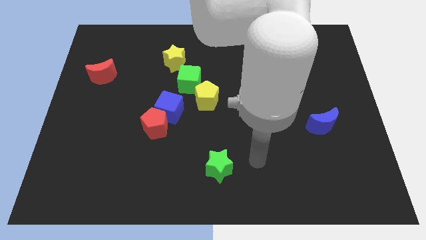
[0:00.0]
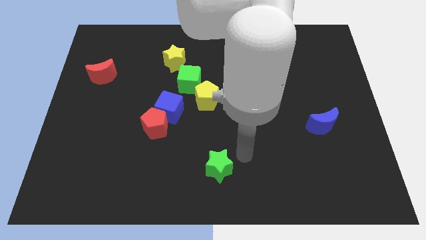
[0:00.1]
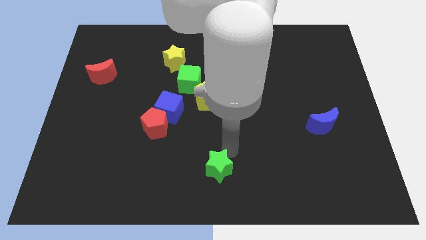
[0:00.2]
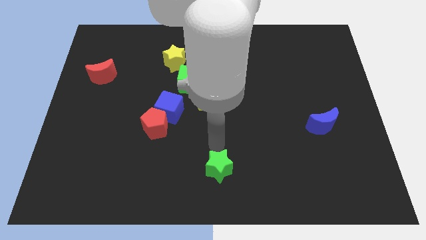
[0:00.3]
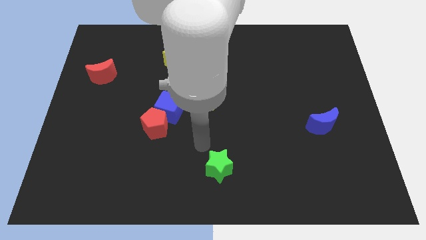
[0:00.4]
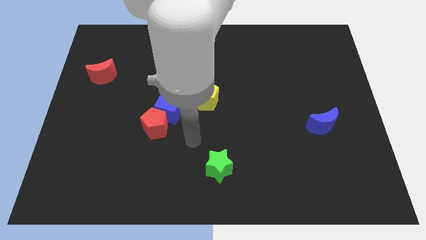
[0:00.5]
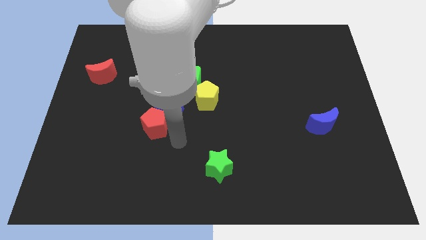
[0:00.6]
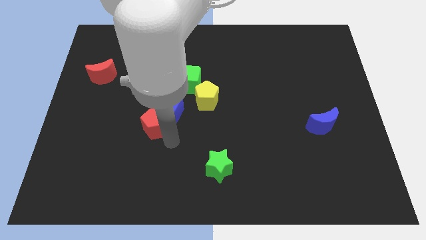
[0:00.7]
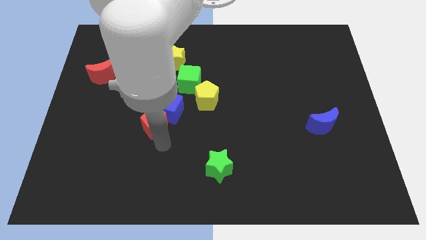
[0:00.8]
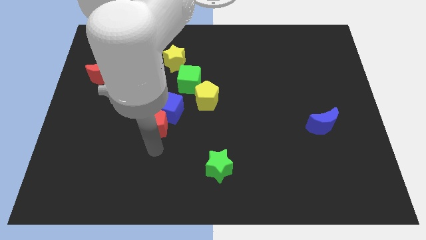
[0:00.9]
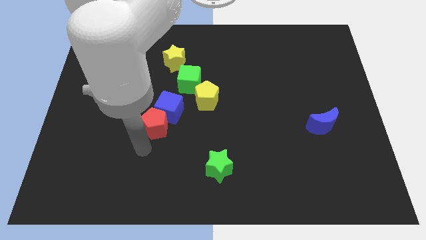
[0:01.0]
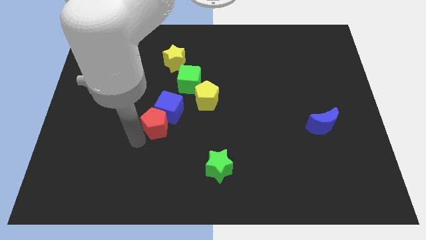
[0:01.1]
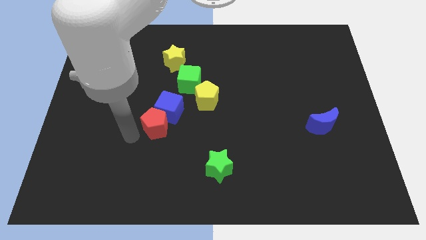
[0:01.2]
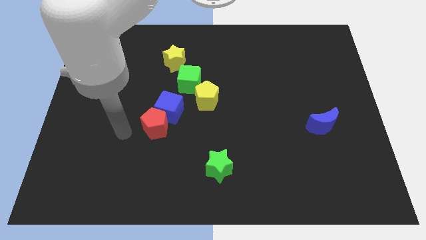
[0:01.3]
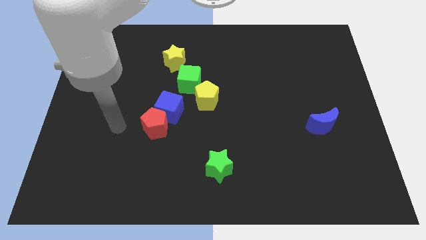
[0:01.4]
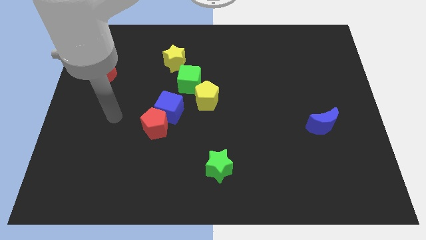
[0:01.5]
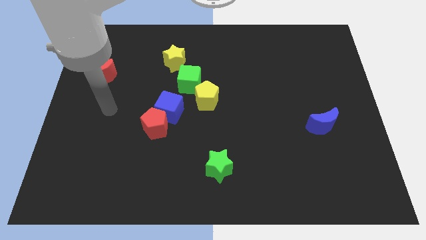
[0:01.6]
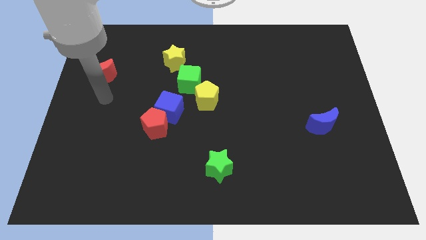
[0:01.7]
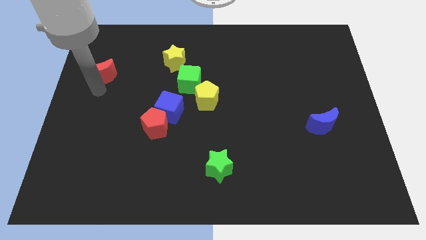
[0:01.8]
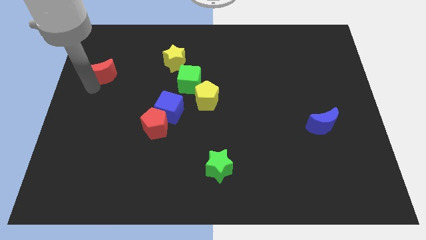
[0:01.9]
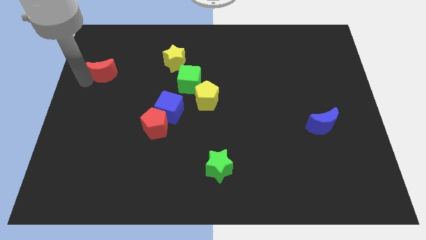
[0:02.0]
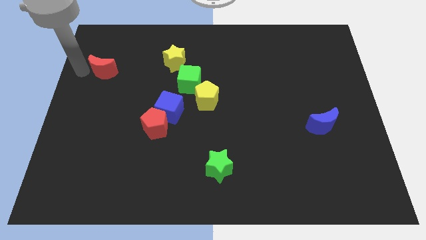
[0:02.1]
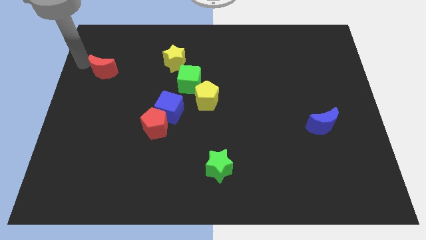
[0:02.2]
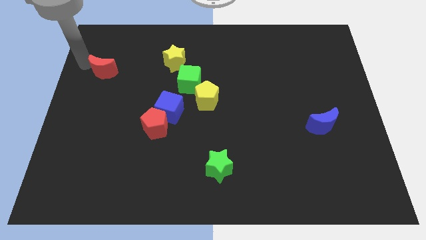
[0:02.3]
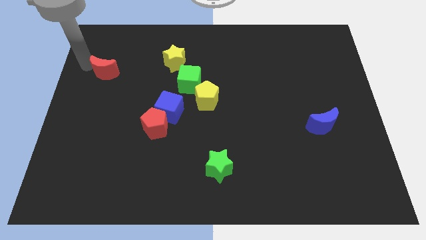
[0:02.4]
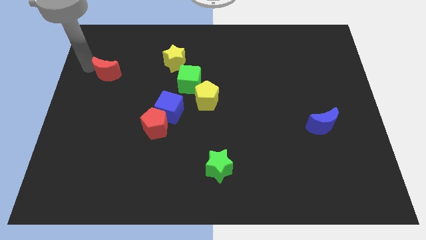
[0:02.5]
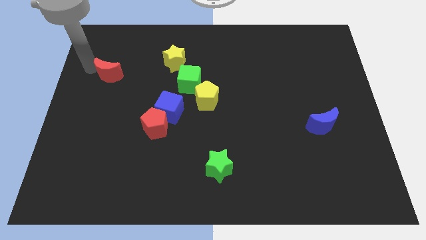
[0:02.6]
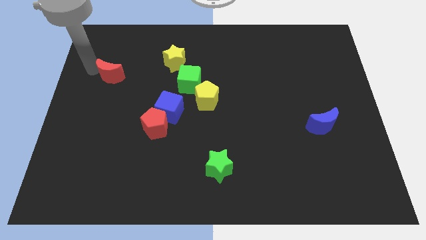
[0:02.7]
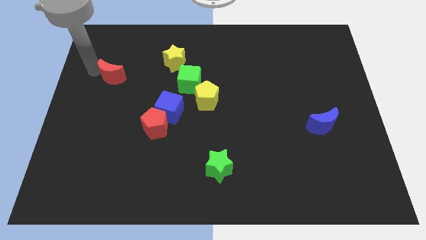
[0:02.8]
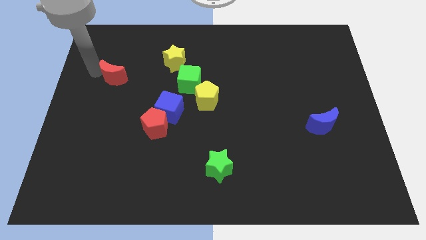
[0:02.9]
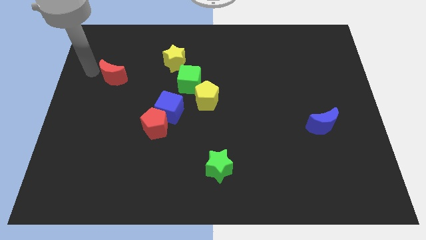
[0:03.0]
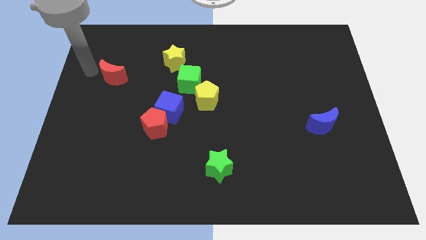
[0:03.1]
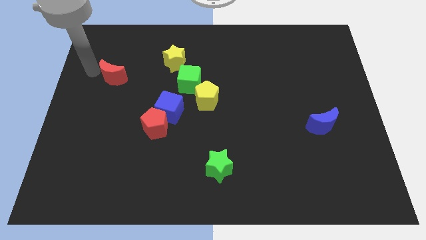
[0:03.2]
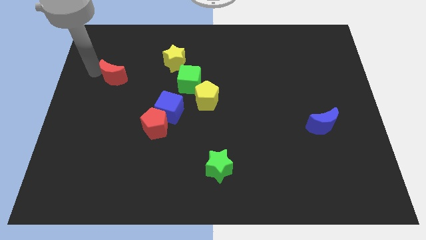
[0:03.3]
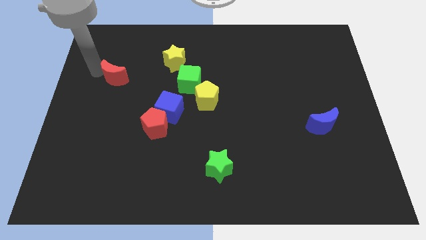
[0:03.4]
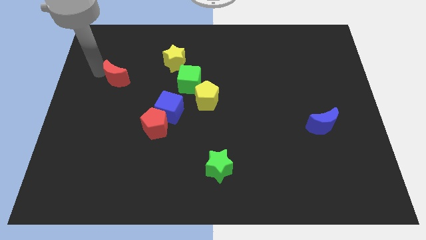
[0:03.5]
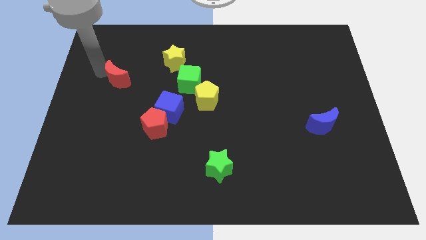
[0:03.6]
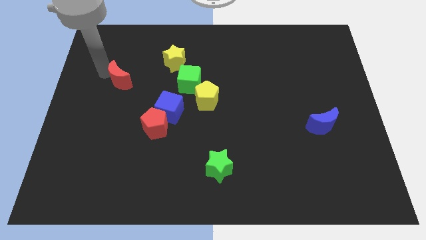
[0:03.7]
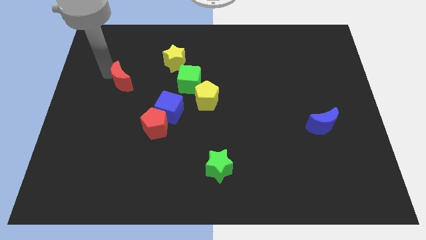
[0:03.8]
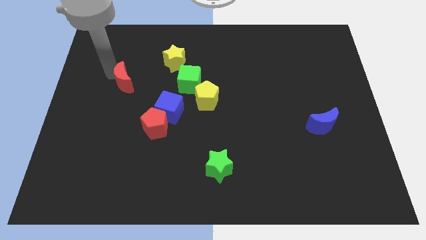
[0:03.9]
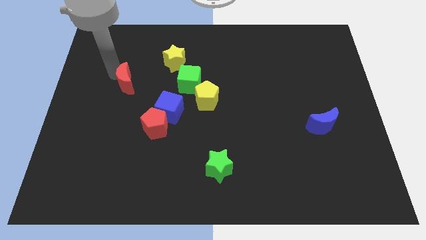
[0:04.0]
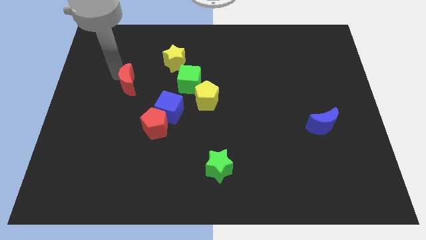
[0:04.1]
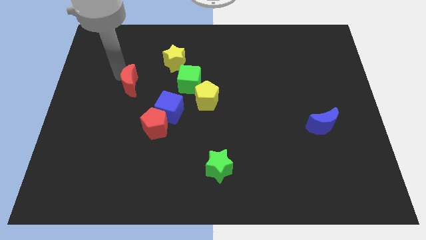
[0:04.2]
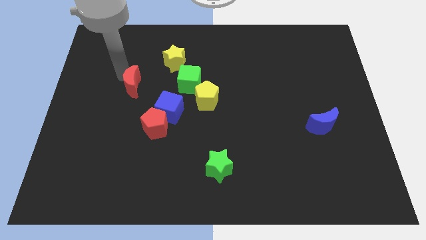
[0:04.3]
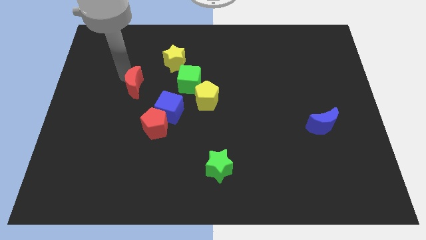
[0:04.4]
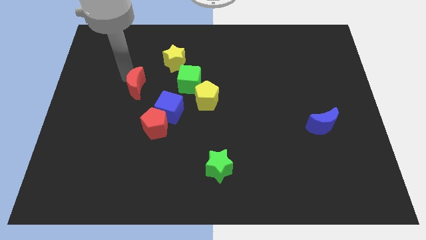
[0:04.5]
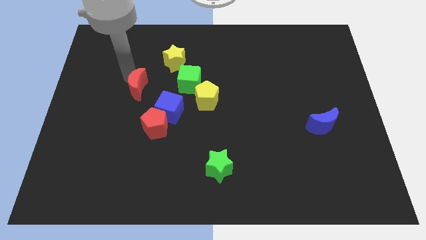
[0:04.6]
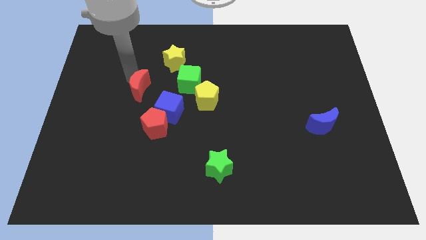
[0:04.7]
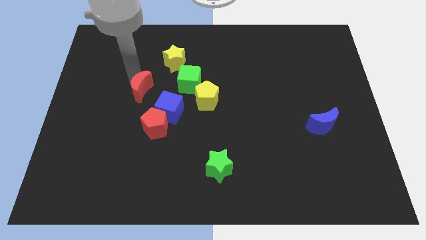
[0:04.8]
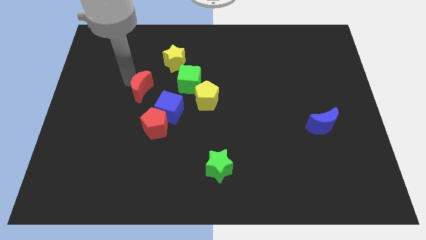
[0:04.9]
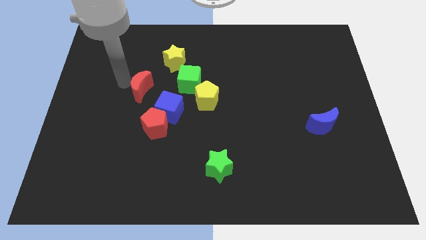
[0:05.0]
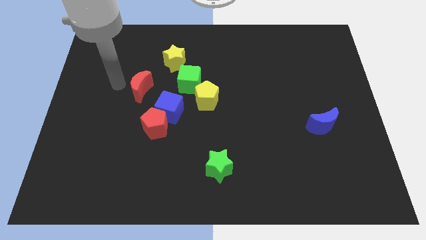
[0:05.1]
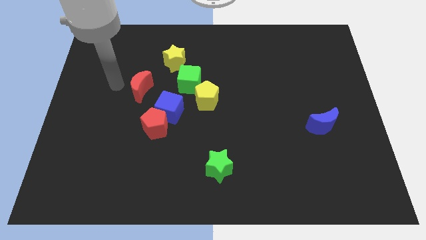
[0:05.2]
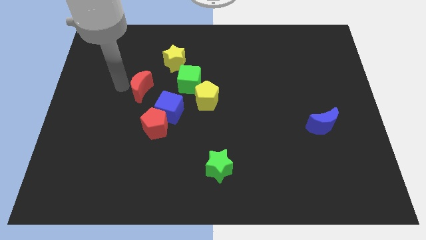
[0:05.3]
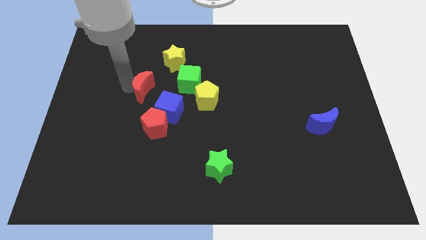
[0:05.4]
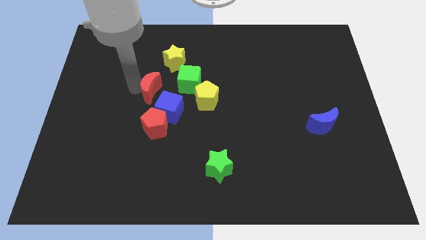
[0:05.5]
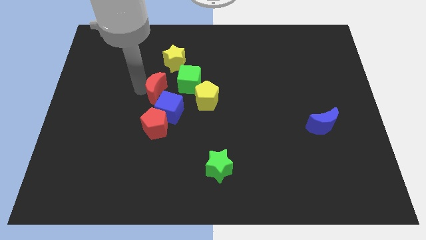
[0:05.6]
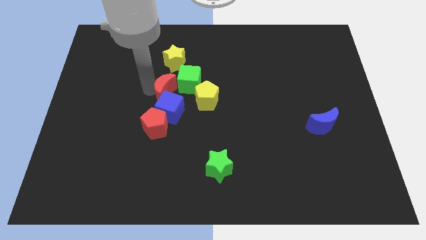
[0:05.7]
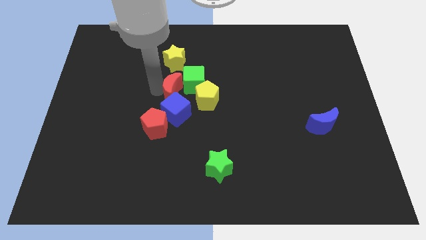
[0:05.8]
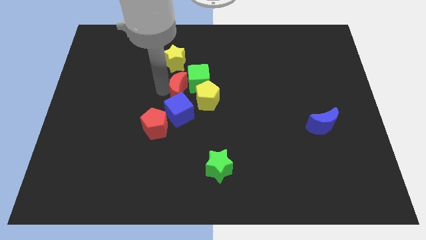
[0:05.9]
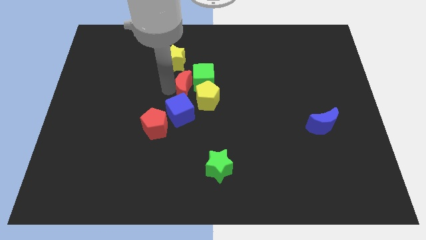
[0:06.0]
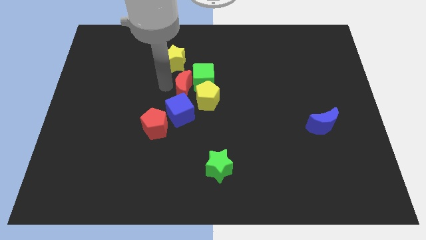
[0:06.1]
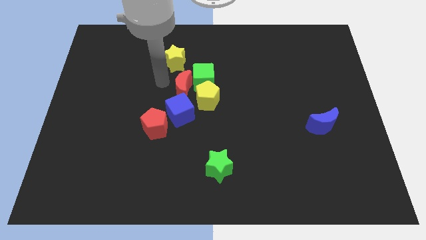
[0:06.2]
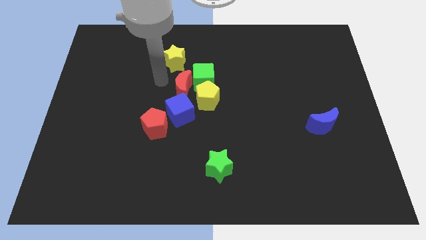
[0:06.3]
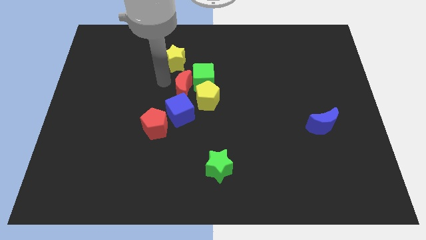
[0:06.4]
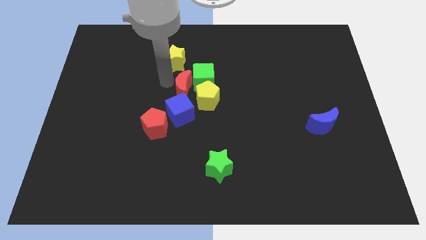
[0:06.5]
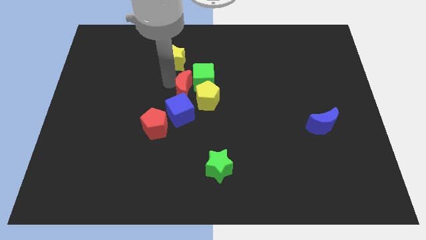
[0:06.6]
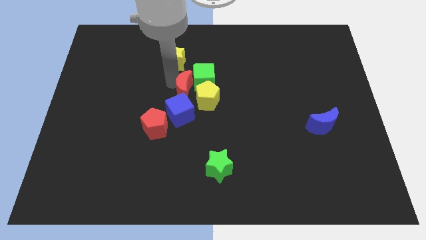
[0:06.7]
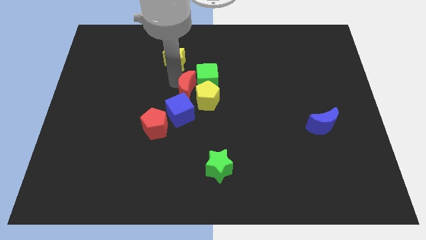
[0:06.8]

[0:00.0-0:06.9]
move the red moon next to the yellow pentagon

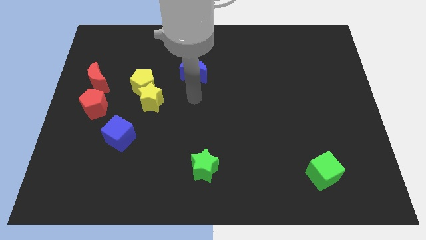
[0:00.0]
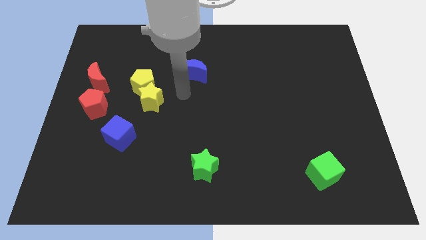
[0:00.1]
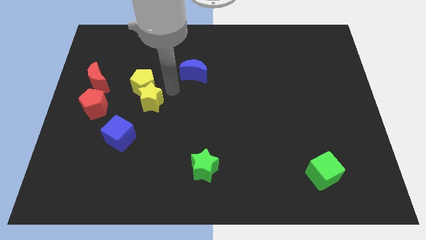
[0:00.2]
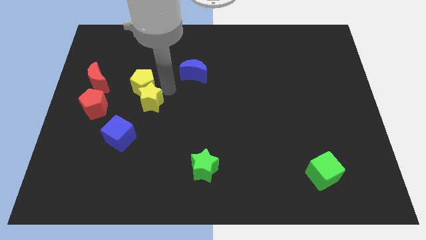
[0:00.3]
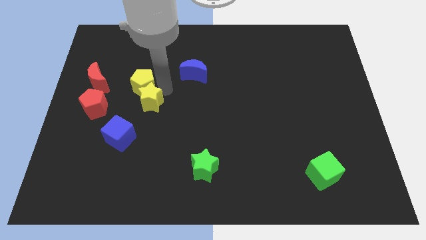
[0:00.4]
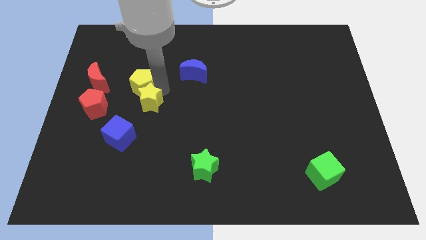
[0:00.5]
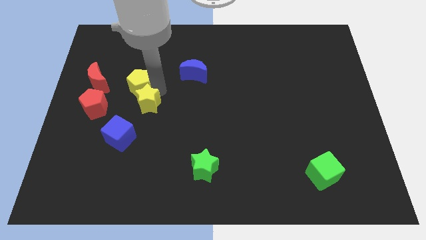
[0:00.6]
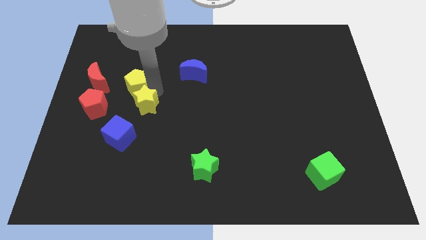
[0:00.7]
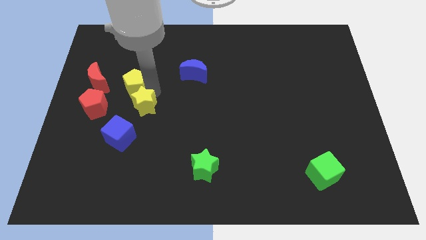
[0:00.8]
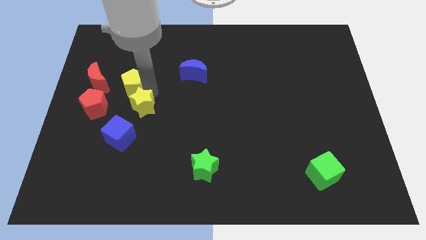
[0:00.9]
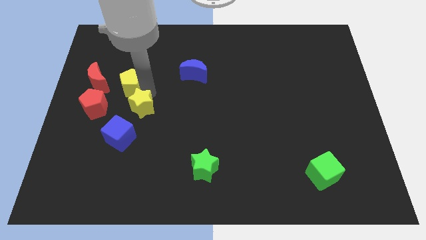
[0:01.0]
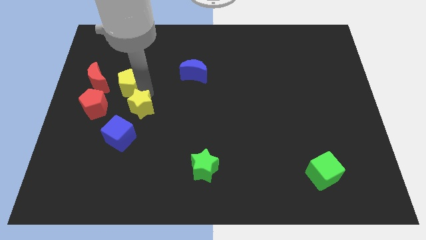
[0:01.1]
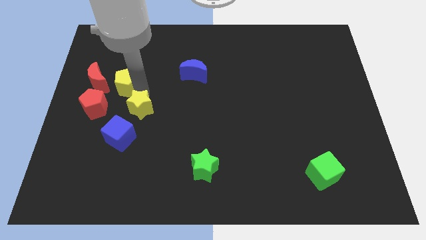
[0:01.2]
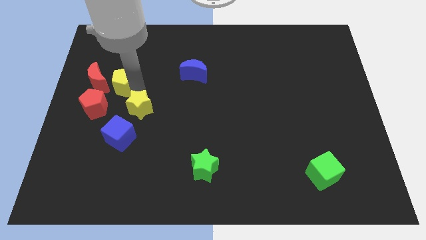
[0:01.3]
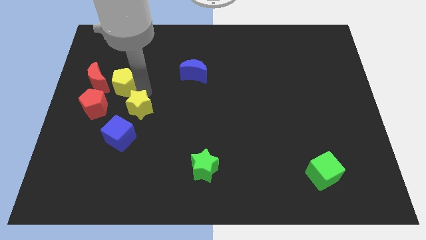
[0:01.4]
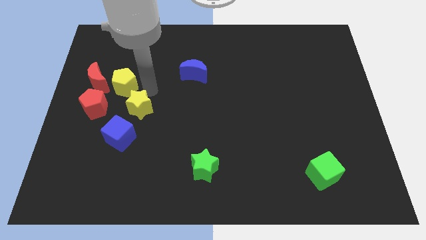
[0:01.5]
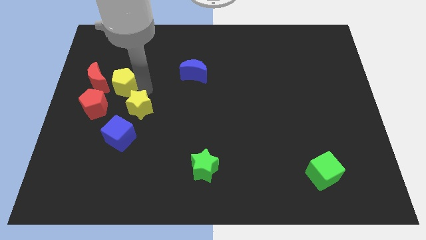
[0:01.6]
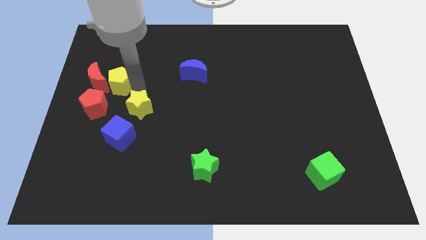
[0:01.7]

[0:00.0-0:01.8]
push the yellow pentagon close to the red moon
